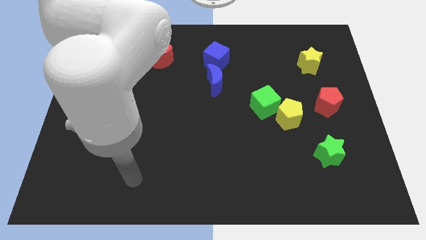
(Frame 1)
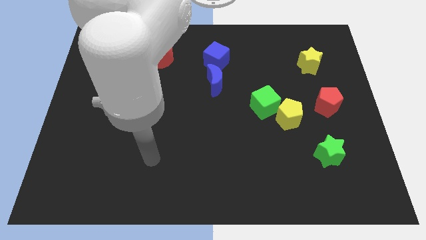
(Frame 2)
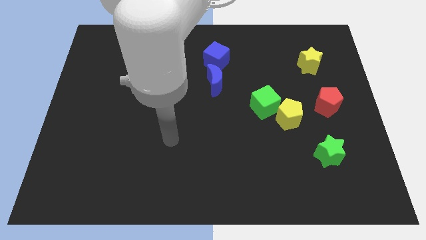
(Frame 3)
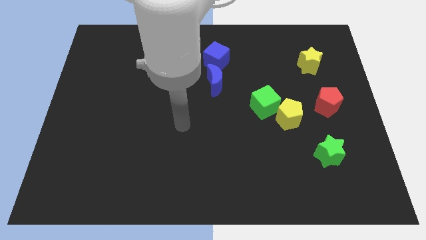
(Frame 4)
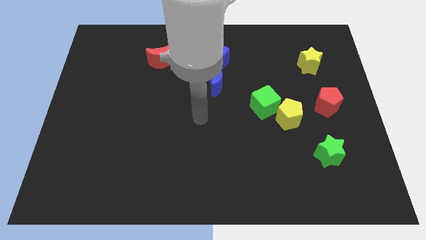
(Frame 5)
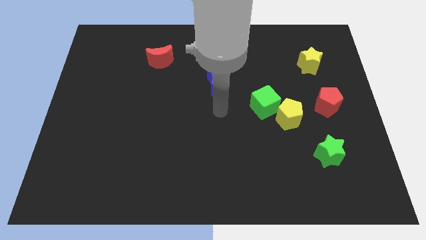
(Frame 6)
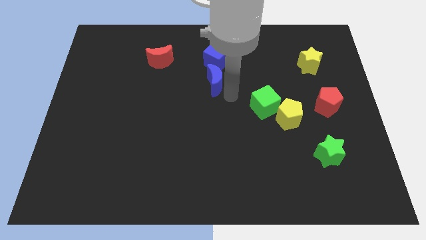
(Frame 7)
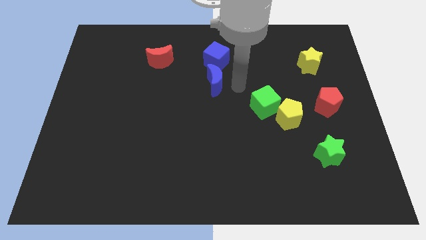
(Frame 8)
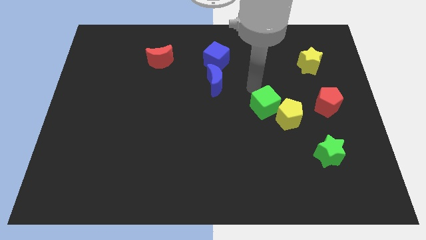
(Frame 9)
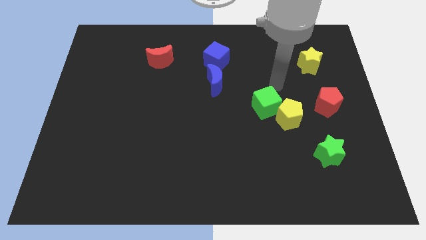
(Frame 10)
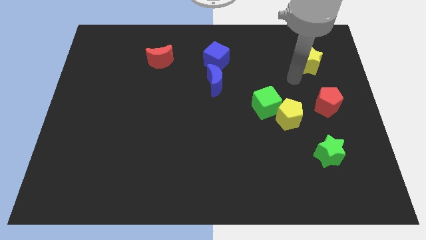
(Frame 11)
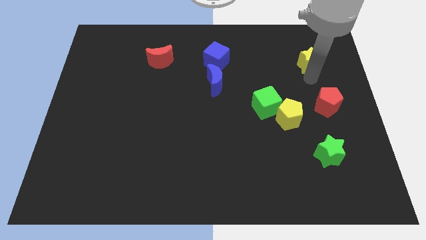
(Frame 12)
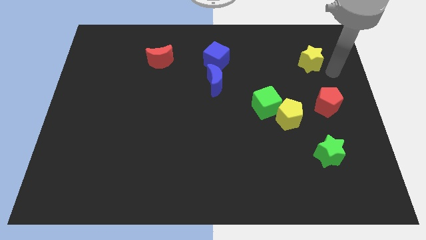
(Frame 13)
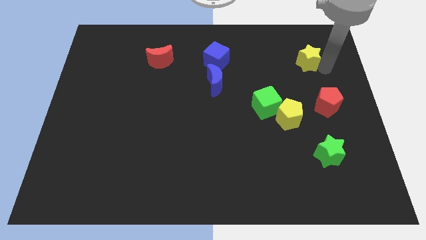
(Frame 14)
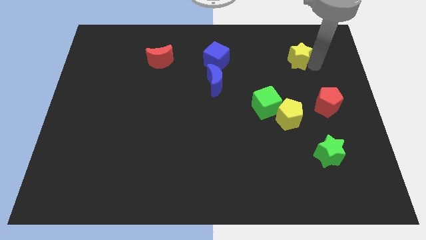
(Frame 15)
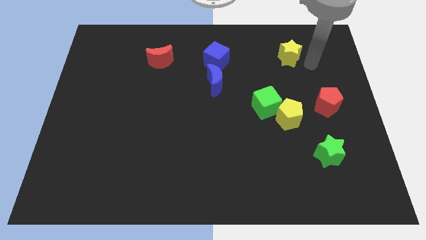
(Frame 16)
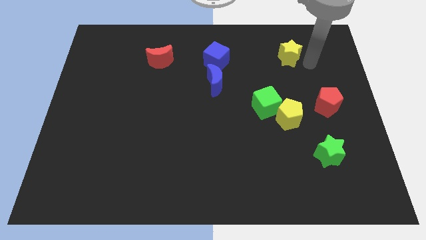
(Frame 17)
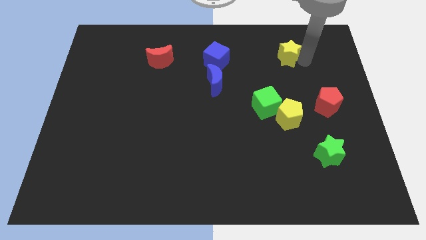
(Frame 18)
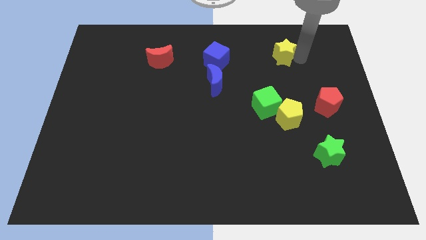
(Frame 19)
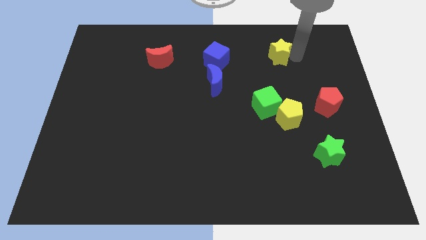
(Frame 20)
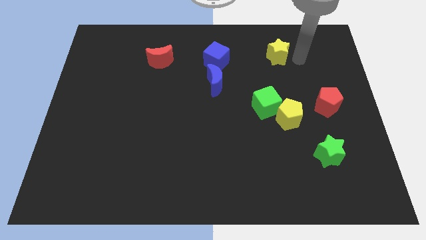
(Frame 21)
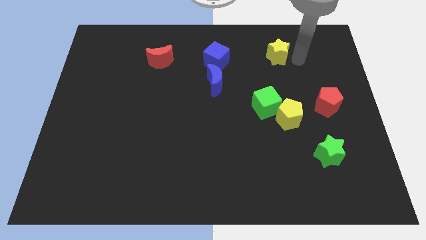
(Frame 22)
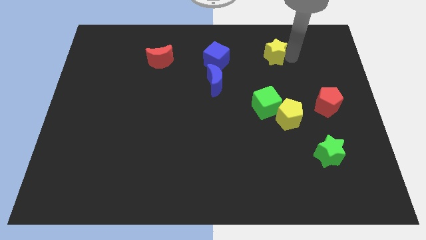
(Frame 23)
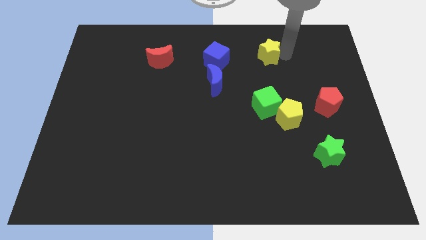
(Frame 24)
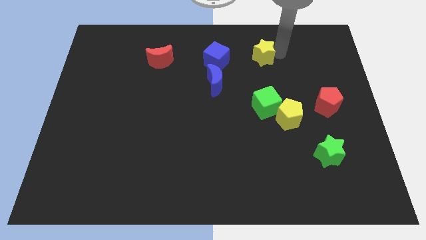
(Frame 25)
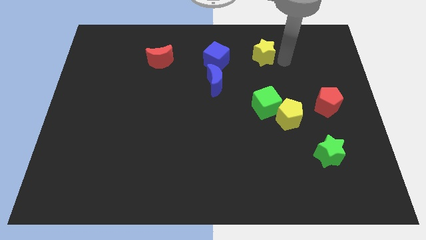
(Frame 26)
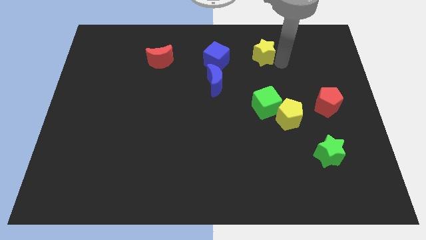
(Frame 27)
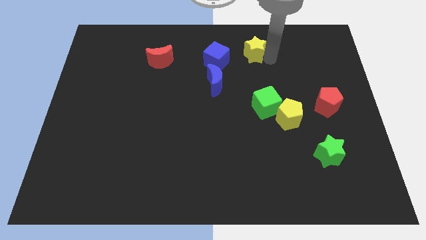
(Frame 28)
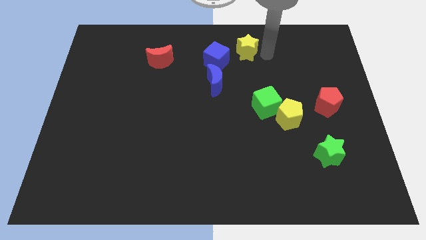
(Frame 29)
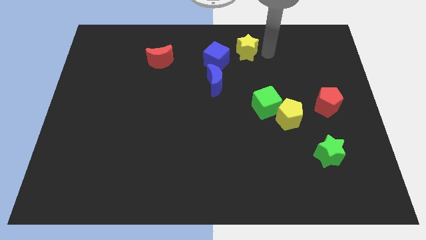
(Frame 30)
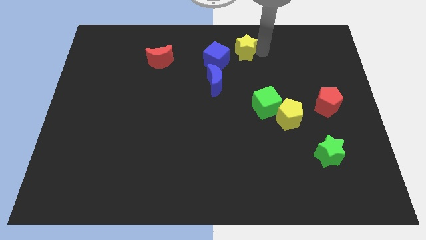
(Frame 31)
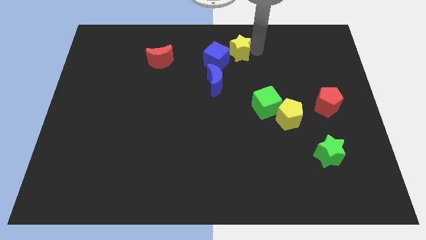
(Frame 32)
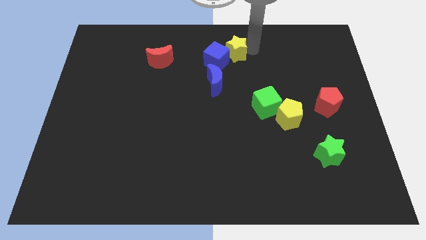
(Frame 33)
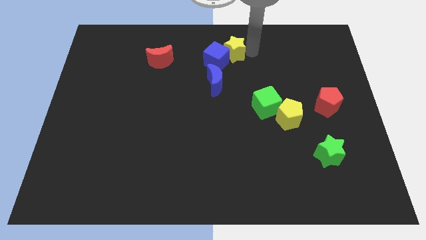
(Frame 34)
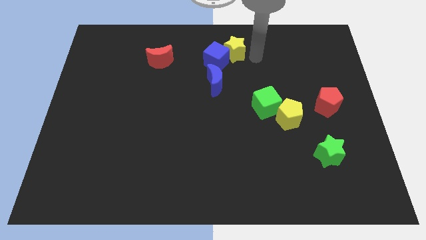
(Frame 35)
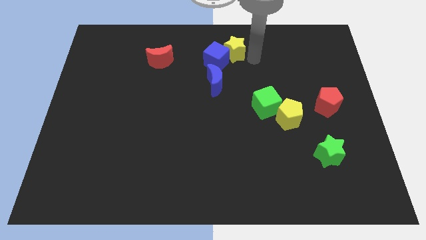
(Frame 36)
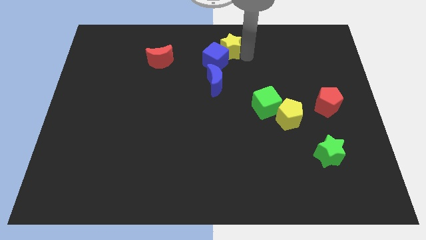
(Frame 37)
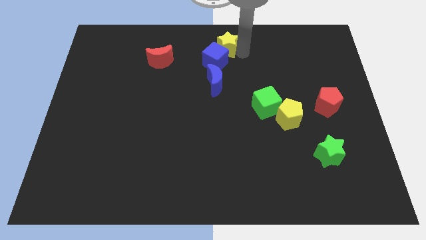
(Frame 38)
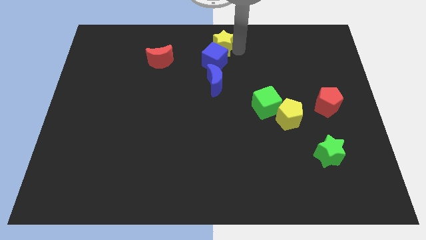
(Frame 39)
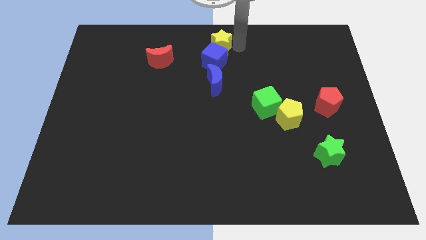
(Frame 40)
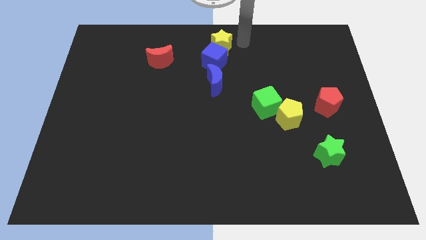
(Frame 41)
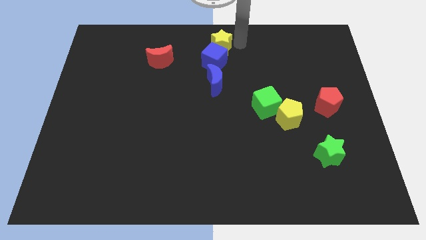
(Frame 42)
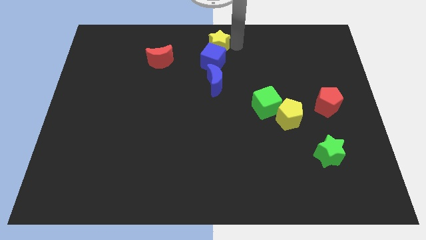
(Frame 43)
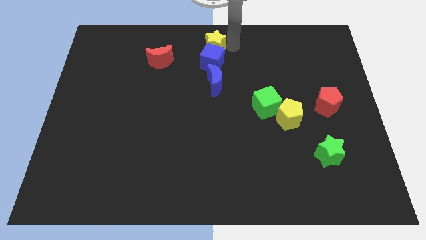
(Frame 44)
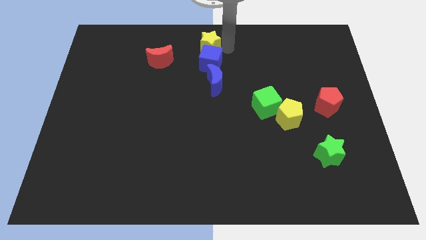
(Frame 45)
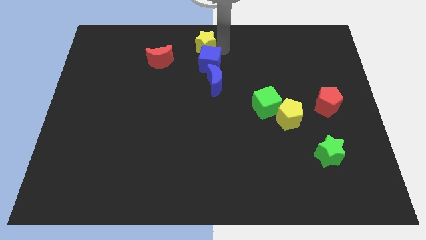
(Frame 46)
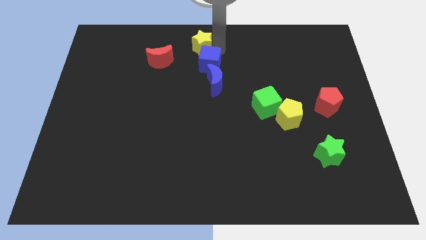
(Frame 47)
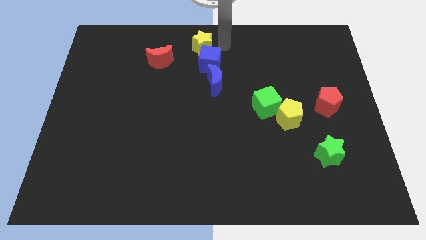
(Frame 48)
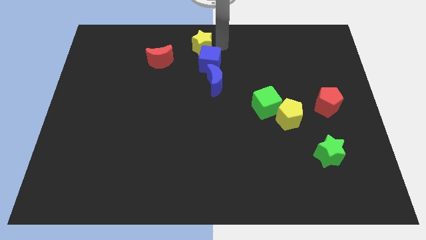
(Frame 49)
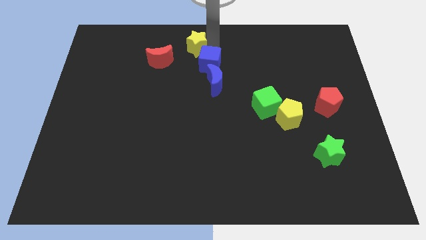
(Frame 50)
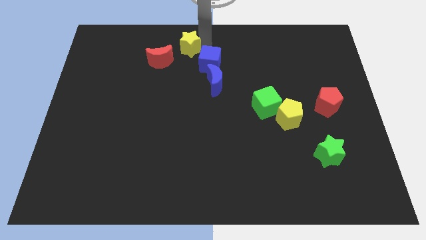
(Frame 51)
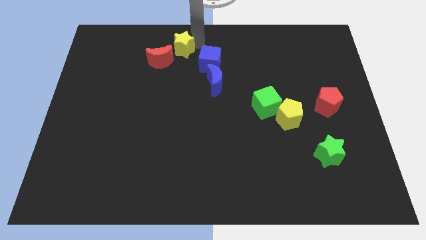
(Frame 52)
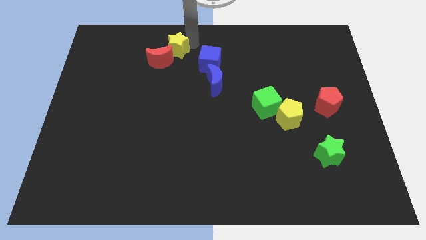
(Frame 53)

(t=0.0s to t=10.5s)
put the yellow star close to the red moon

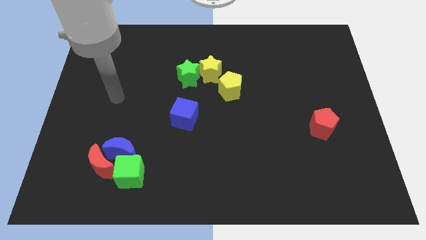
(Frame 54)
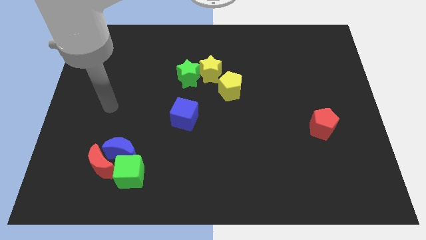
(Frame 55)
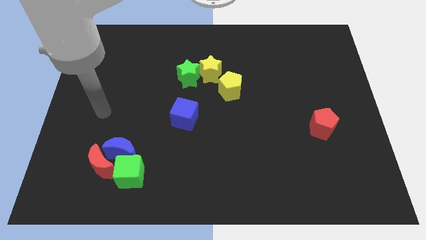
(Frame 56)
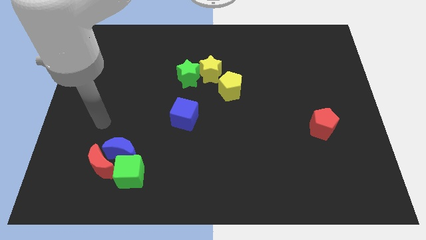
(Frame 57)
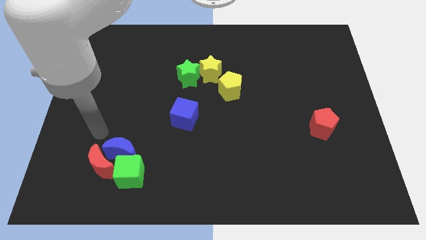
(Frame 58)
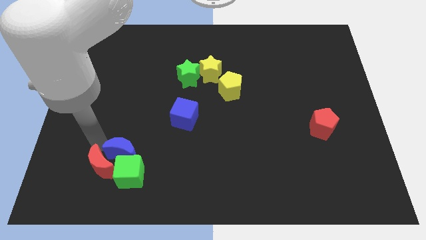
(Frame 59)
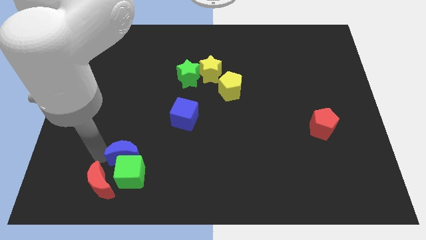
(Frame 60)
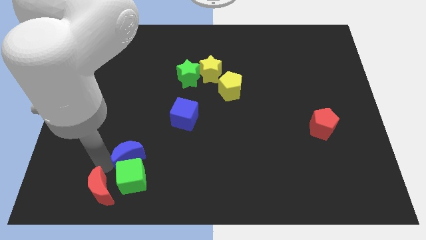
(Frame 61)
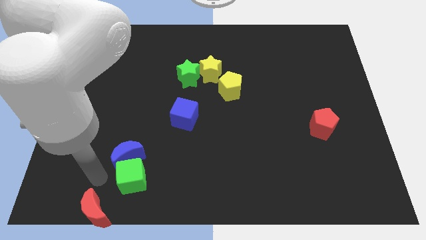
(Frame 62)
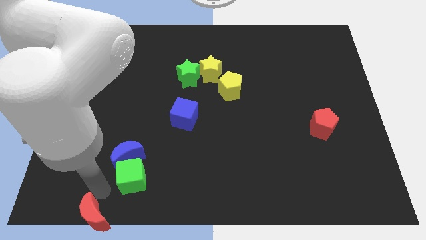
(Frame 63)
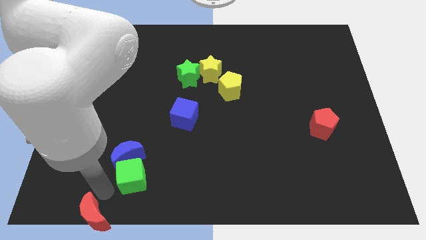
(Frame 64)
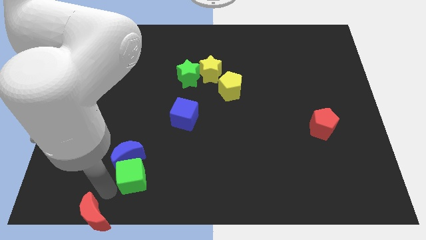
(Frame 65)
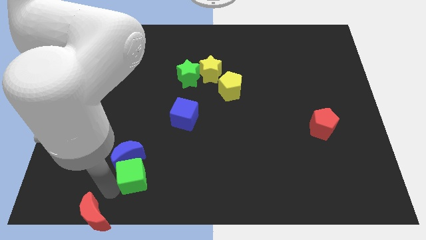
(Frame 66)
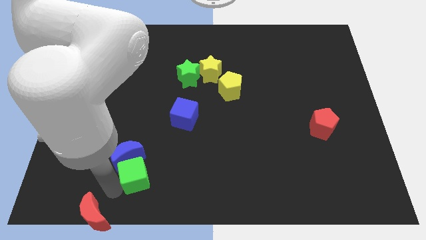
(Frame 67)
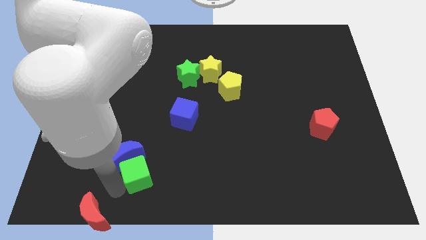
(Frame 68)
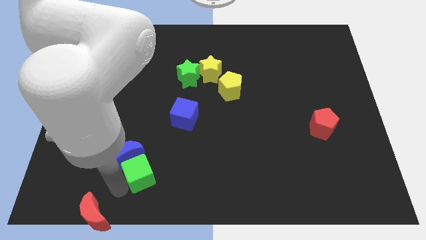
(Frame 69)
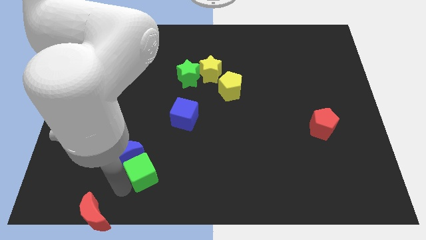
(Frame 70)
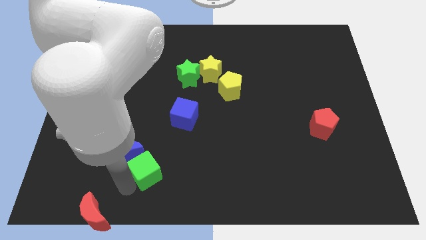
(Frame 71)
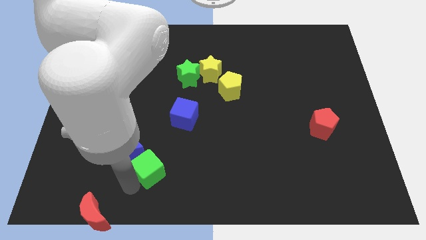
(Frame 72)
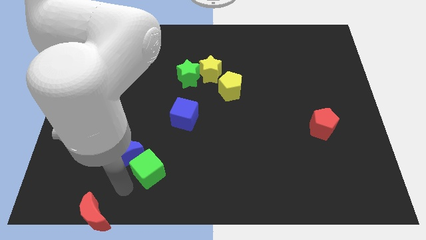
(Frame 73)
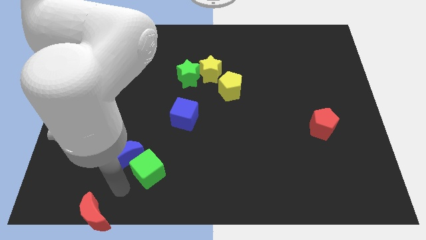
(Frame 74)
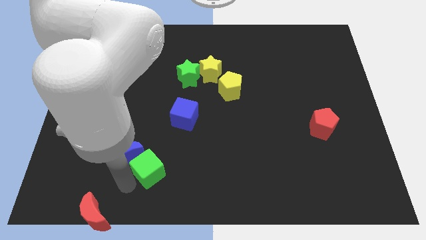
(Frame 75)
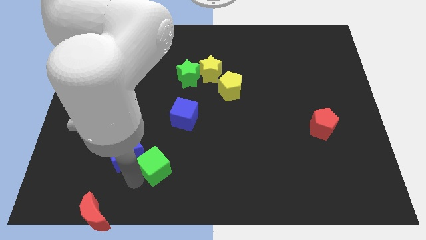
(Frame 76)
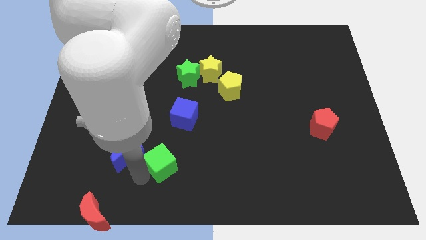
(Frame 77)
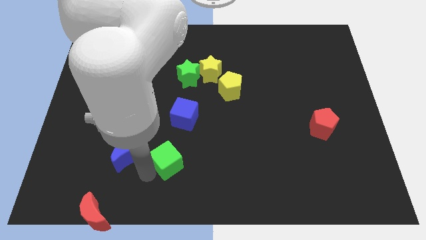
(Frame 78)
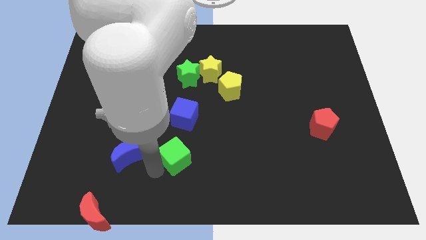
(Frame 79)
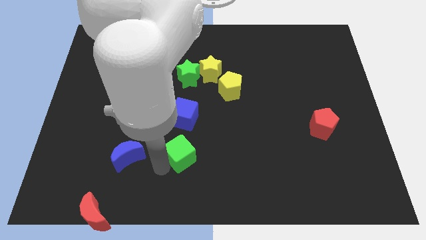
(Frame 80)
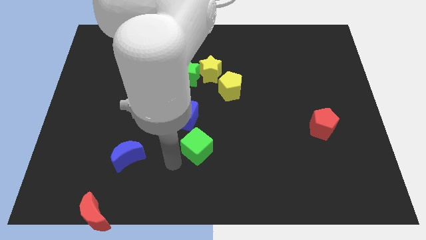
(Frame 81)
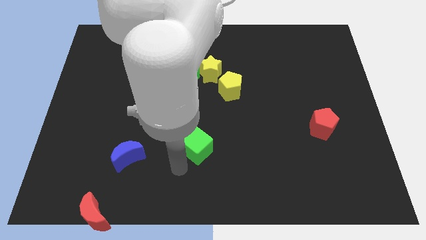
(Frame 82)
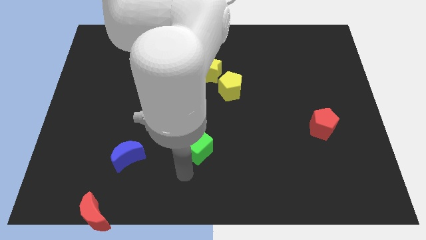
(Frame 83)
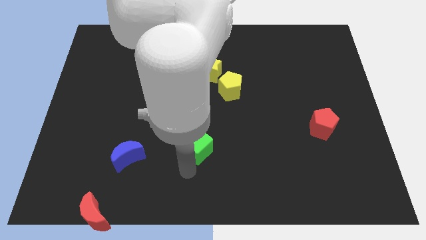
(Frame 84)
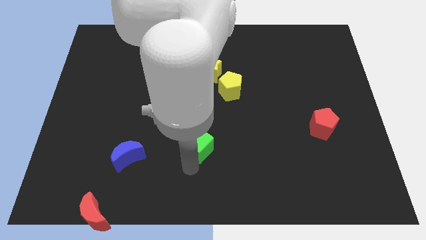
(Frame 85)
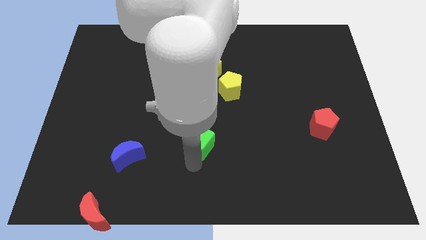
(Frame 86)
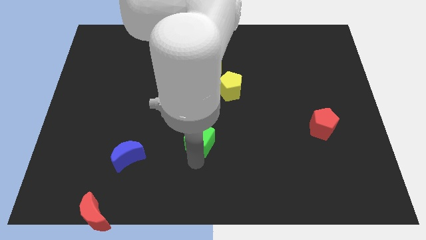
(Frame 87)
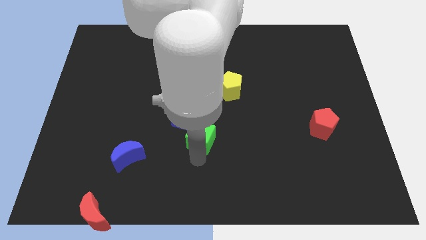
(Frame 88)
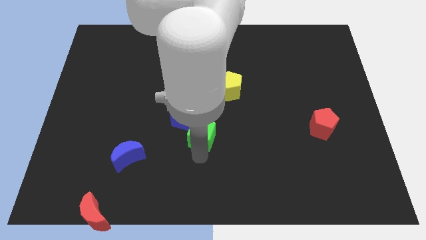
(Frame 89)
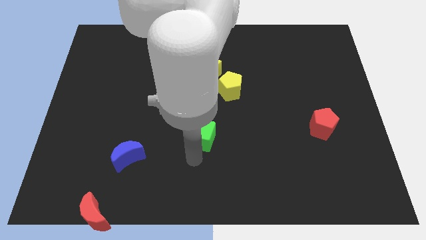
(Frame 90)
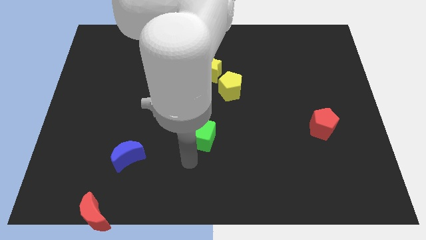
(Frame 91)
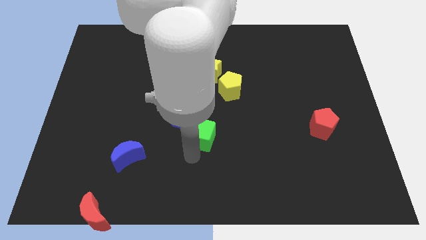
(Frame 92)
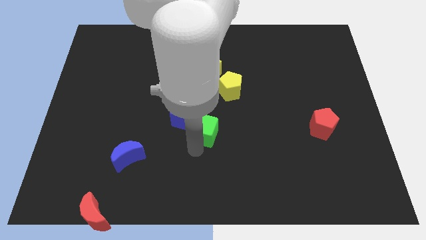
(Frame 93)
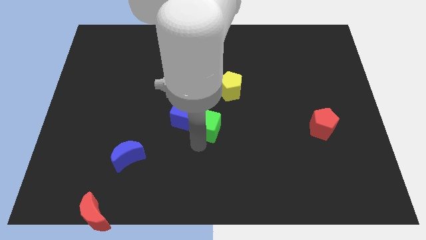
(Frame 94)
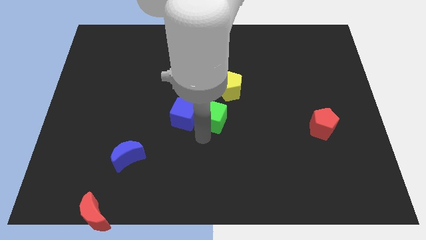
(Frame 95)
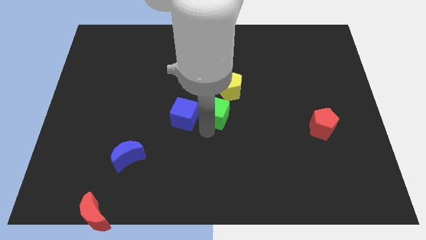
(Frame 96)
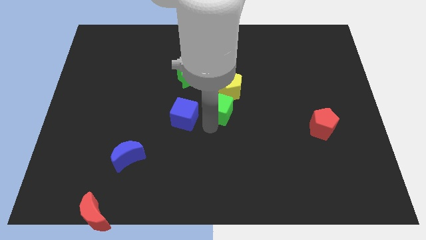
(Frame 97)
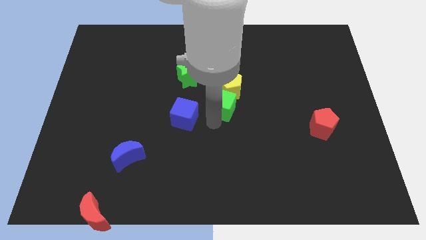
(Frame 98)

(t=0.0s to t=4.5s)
push the green cube to the yellow pentagon
